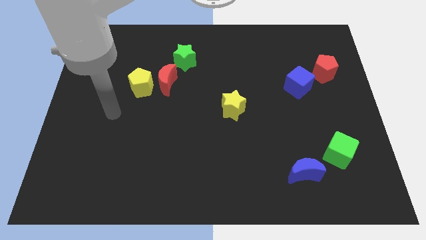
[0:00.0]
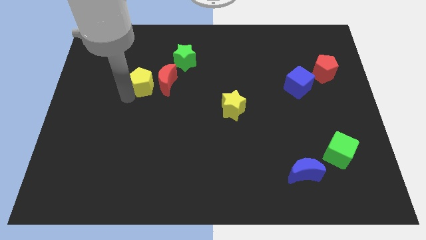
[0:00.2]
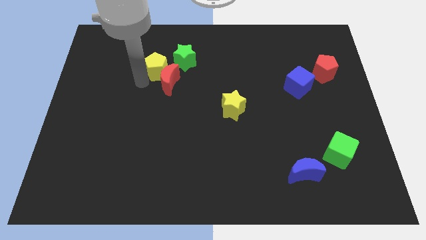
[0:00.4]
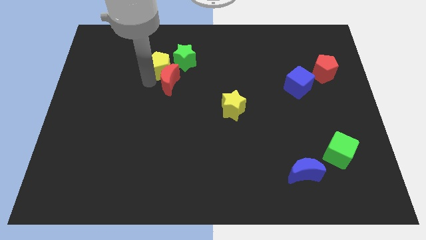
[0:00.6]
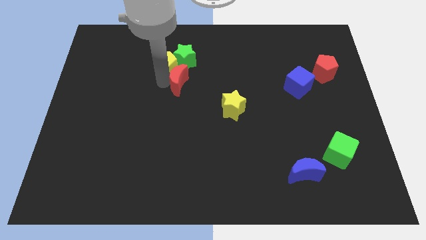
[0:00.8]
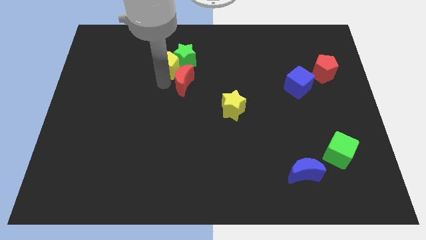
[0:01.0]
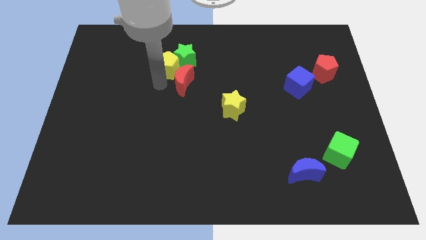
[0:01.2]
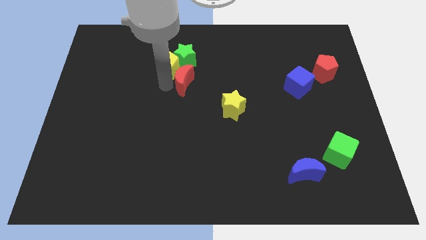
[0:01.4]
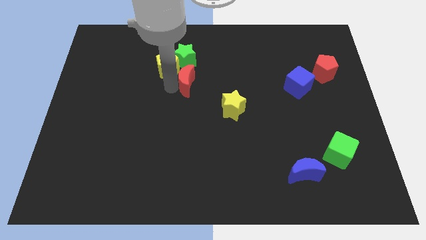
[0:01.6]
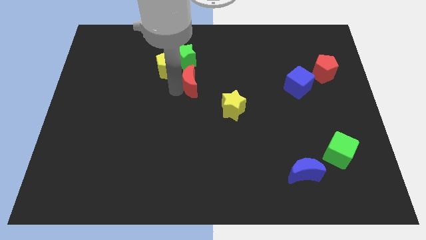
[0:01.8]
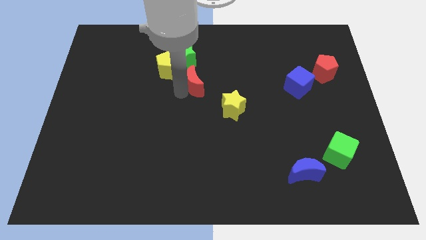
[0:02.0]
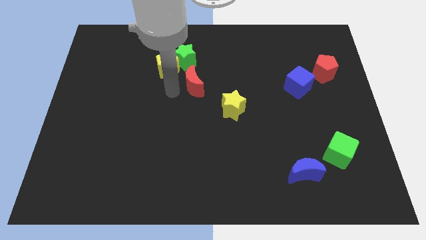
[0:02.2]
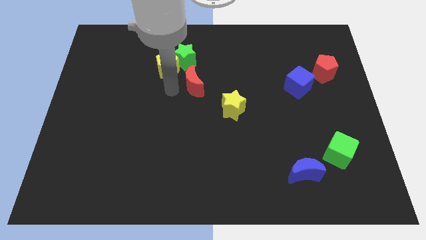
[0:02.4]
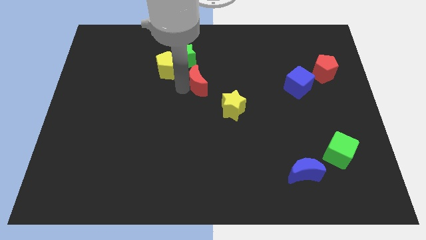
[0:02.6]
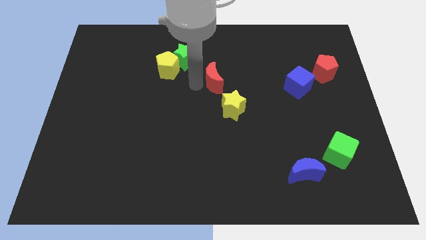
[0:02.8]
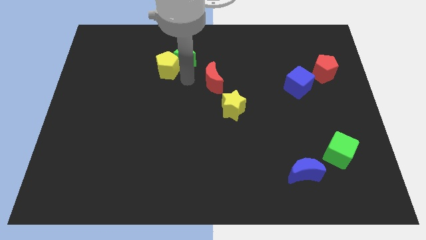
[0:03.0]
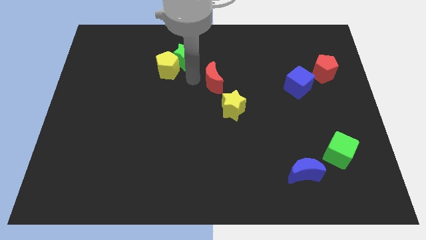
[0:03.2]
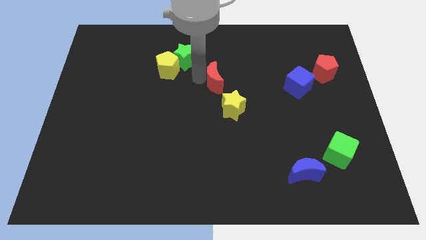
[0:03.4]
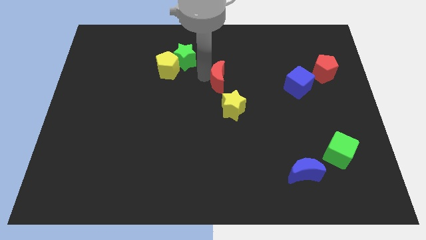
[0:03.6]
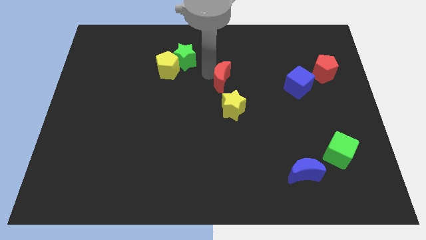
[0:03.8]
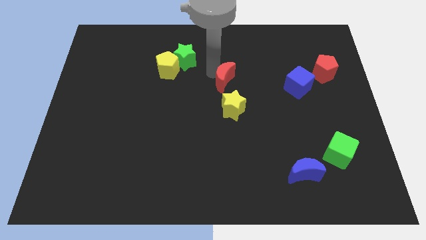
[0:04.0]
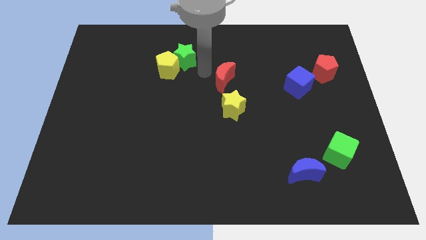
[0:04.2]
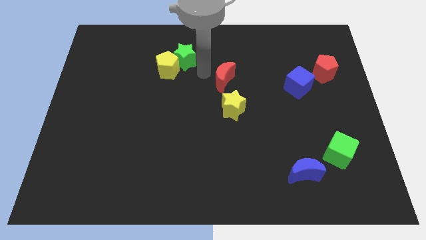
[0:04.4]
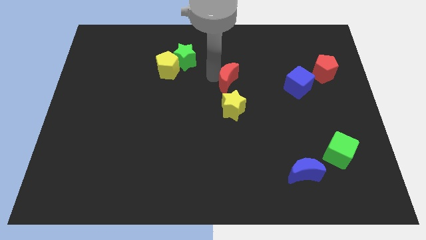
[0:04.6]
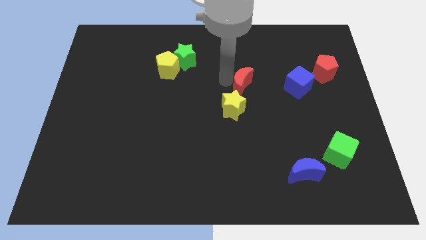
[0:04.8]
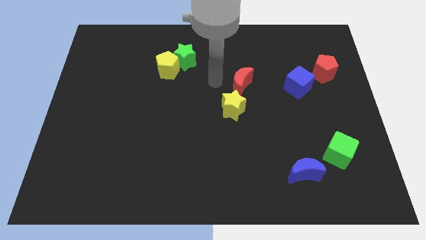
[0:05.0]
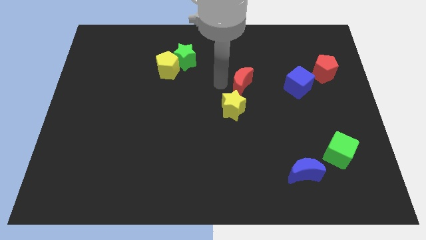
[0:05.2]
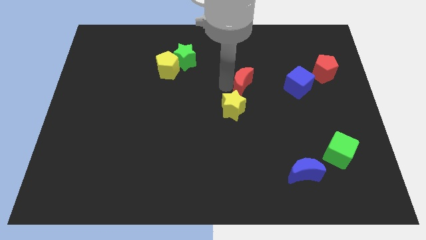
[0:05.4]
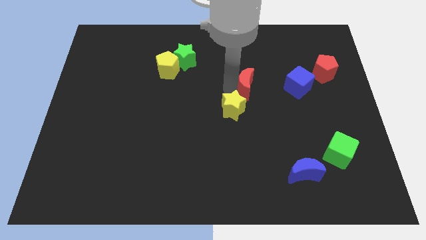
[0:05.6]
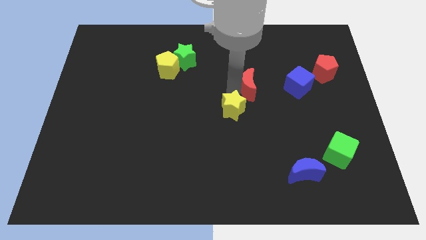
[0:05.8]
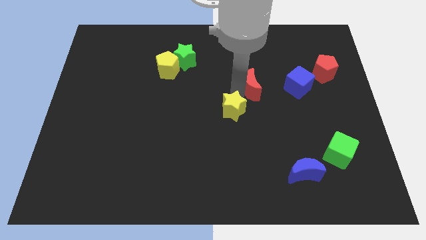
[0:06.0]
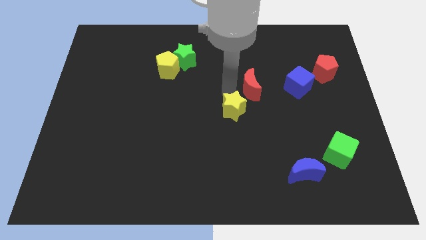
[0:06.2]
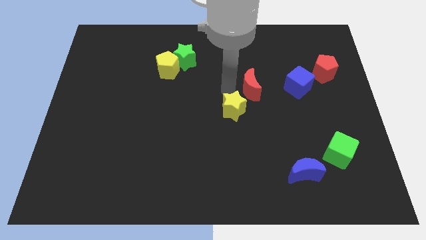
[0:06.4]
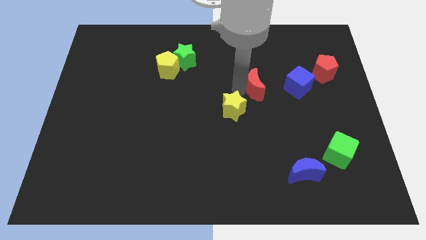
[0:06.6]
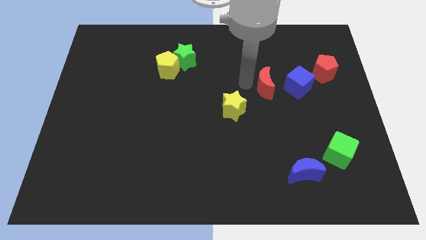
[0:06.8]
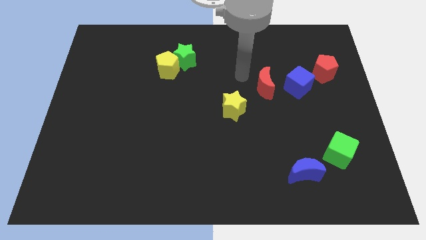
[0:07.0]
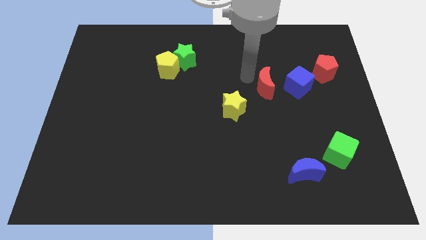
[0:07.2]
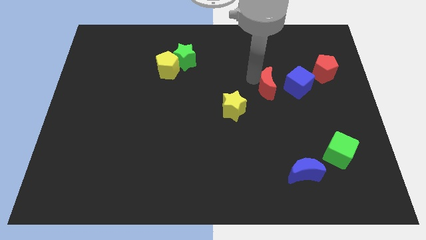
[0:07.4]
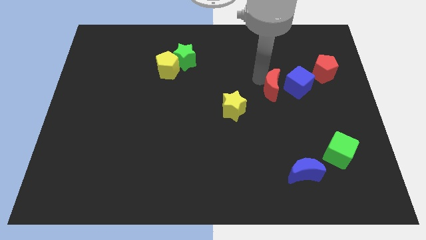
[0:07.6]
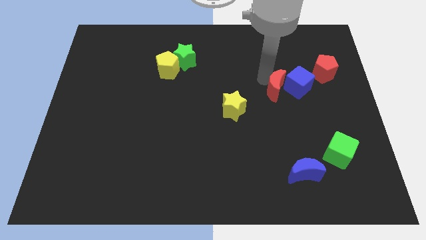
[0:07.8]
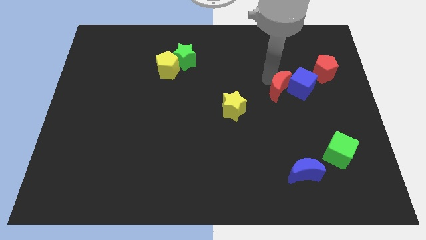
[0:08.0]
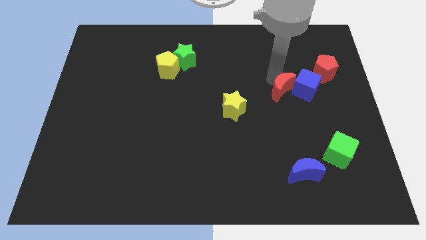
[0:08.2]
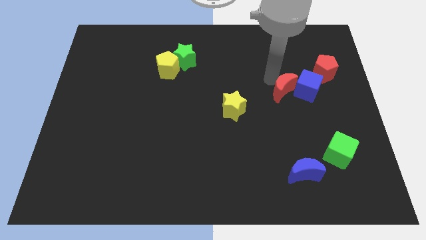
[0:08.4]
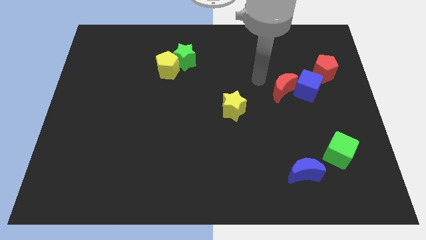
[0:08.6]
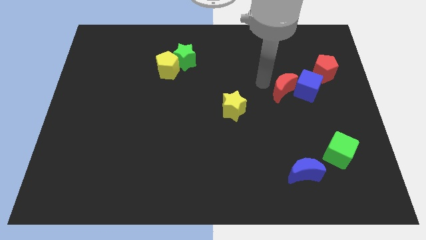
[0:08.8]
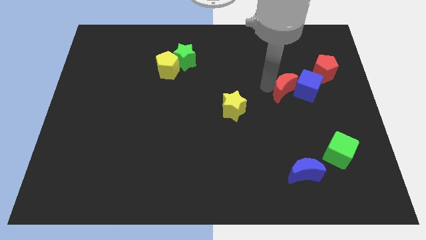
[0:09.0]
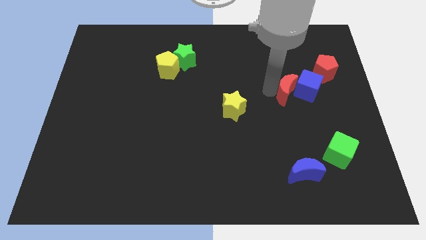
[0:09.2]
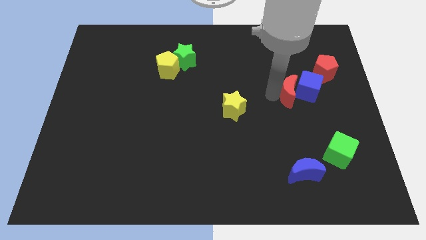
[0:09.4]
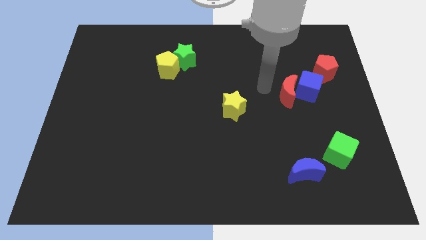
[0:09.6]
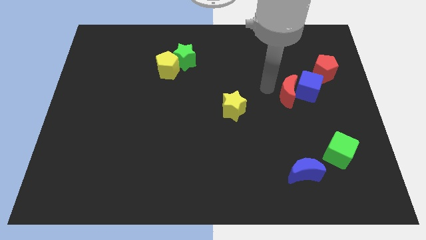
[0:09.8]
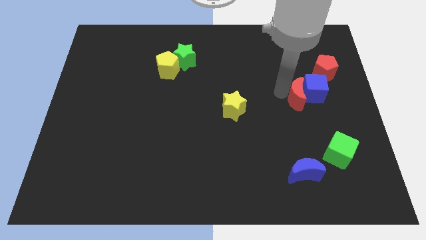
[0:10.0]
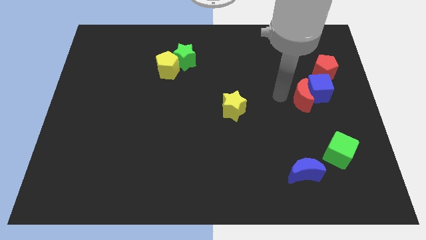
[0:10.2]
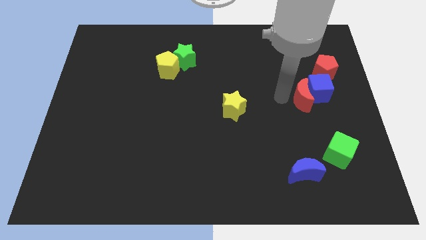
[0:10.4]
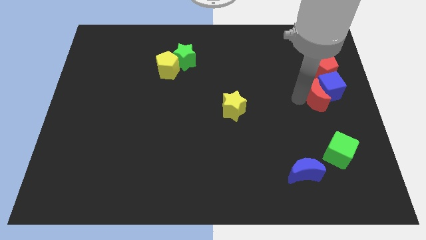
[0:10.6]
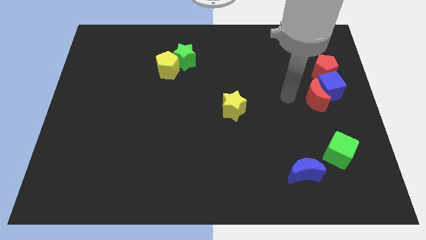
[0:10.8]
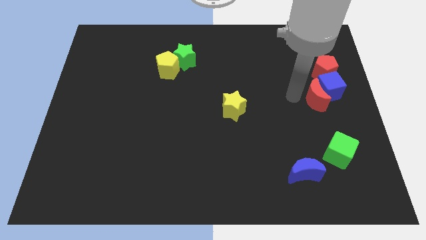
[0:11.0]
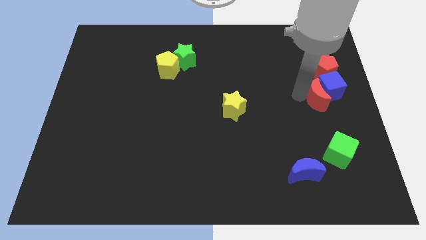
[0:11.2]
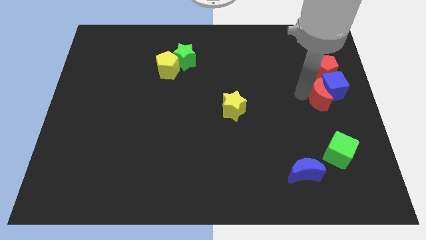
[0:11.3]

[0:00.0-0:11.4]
slide the red moon to the right side of the board

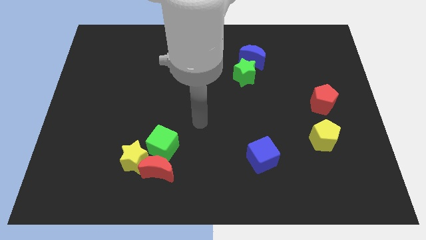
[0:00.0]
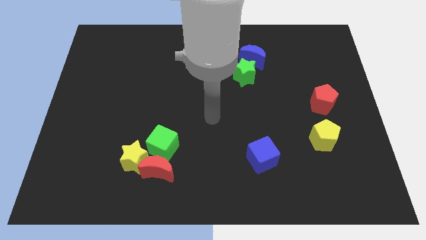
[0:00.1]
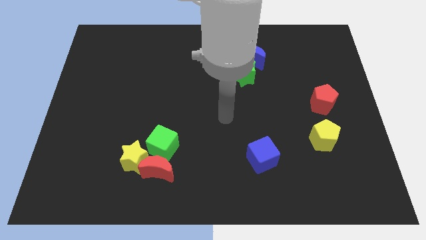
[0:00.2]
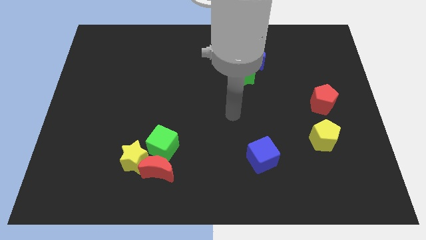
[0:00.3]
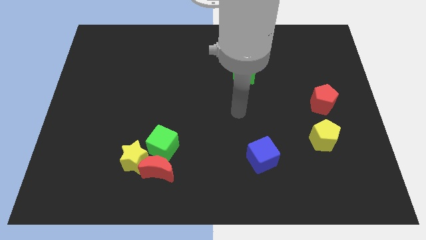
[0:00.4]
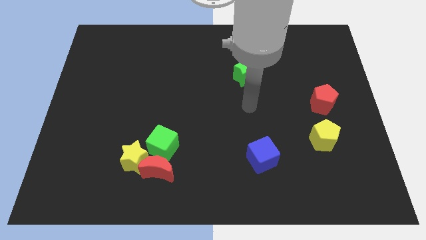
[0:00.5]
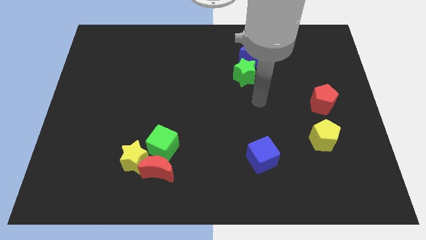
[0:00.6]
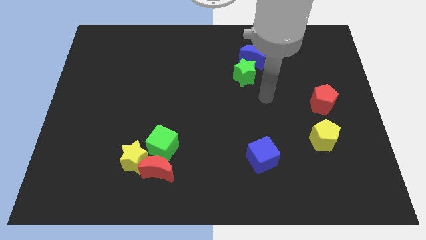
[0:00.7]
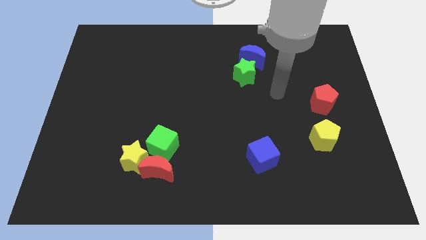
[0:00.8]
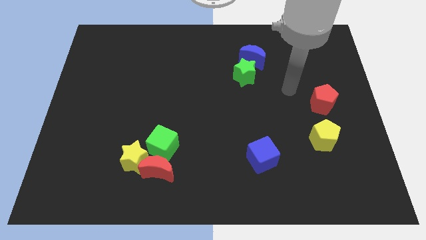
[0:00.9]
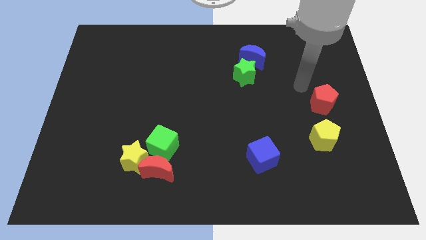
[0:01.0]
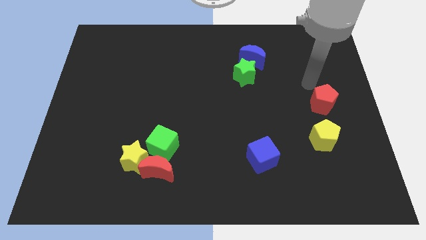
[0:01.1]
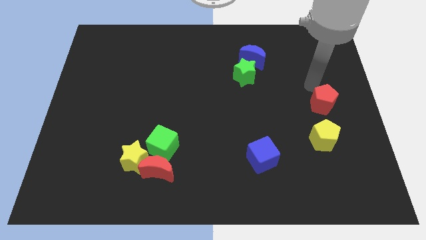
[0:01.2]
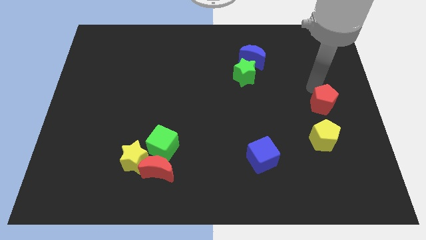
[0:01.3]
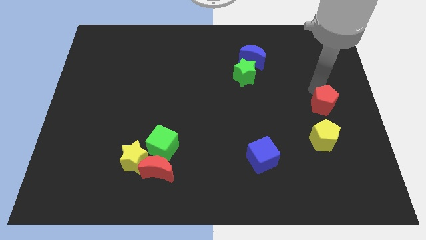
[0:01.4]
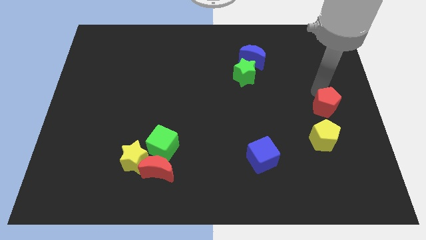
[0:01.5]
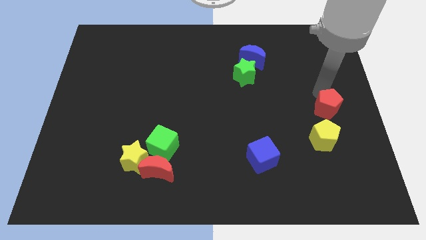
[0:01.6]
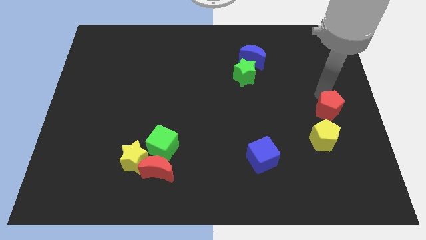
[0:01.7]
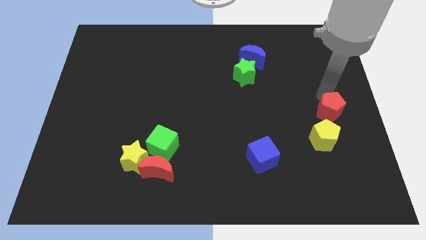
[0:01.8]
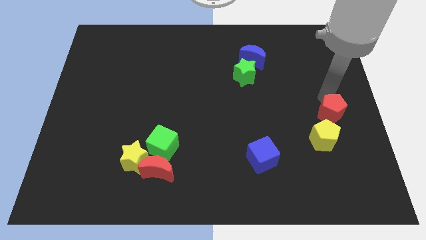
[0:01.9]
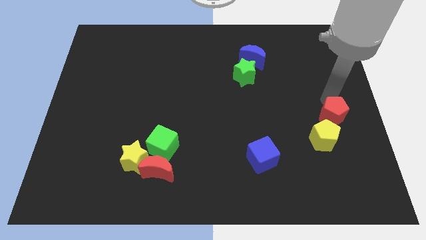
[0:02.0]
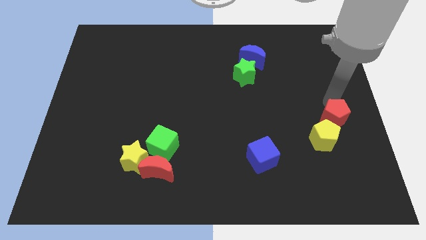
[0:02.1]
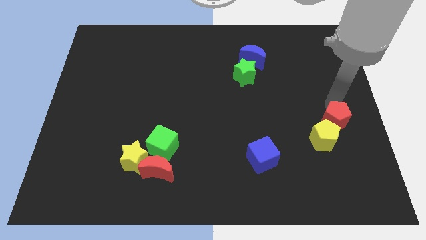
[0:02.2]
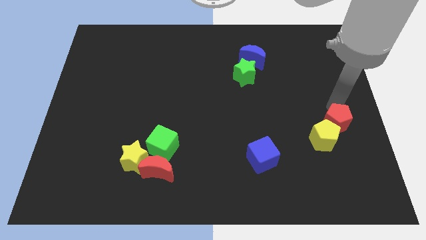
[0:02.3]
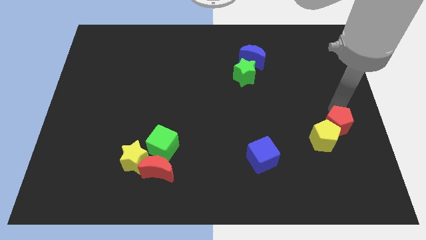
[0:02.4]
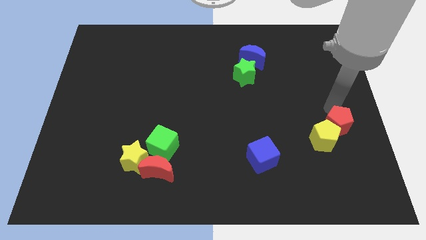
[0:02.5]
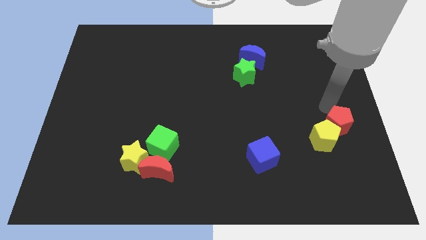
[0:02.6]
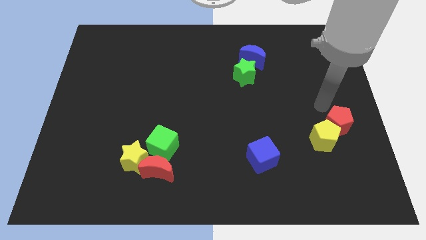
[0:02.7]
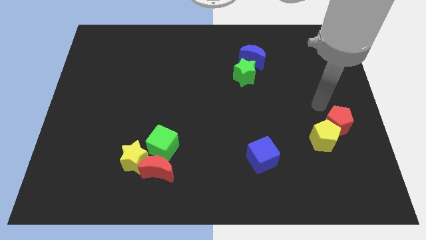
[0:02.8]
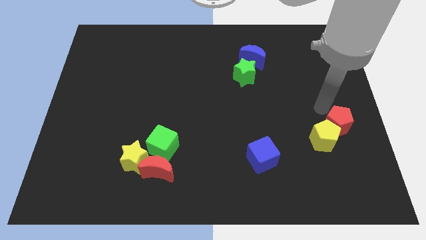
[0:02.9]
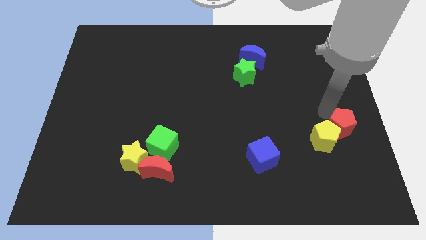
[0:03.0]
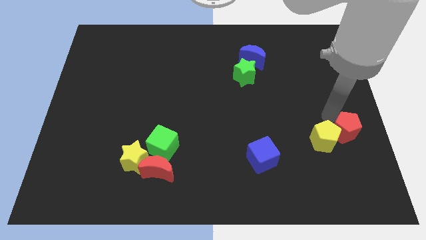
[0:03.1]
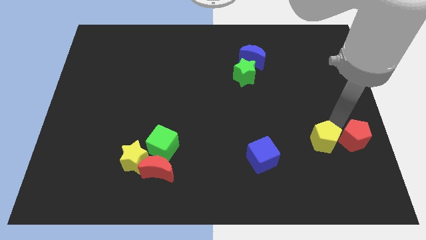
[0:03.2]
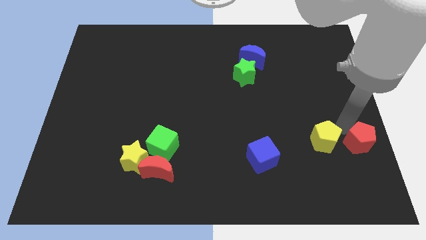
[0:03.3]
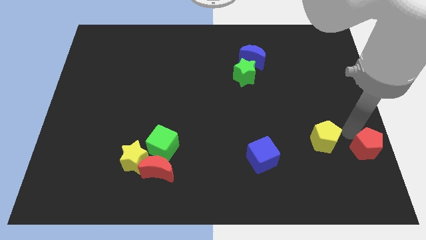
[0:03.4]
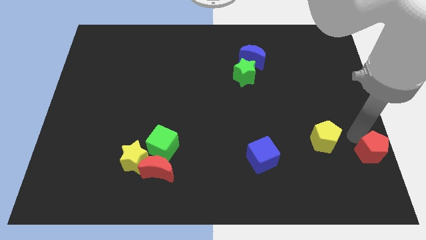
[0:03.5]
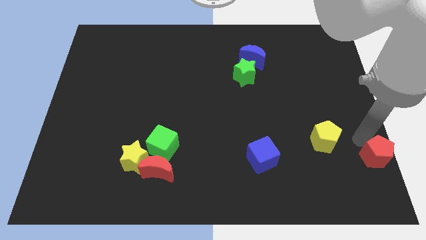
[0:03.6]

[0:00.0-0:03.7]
push the red pentagon to the bottom right corner
